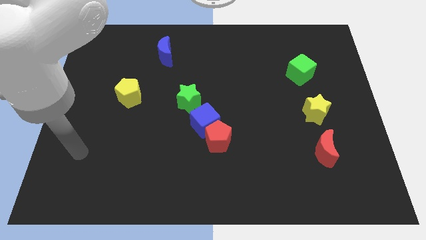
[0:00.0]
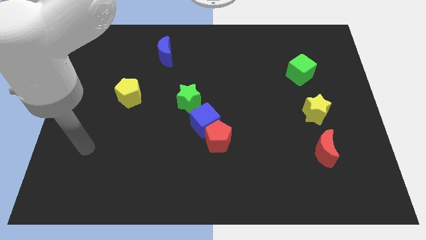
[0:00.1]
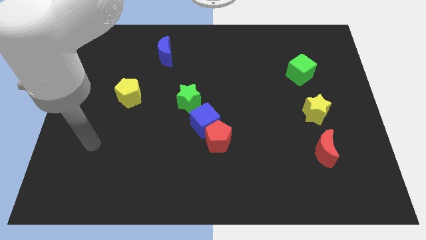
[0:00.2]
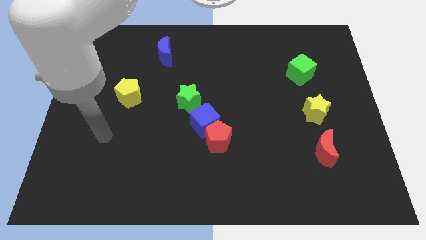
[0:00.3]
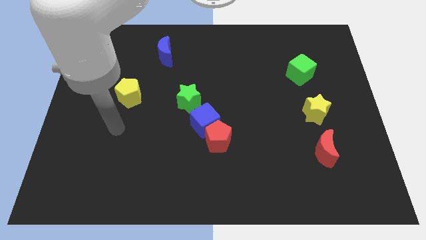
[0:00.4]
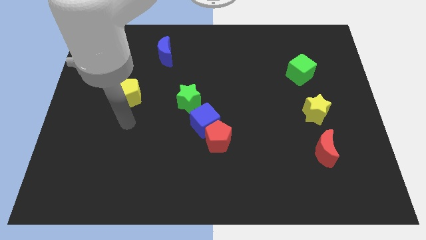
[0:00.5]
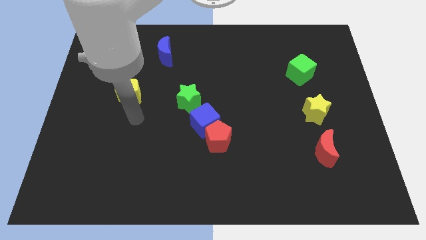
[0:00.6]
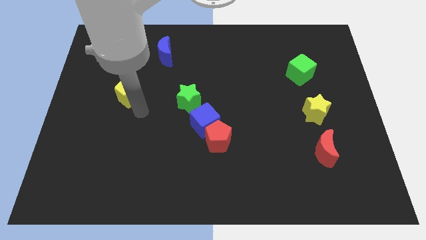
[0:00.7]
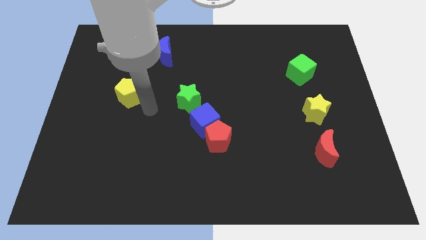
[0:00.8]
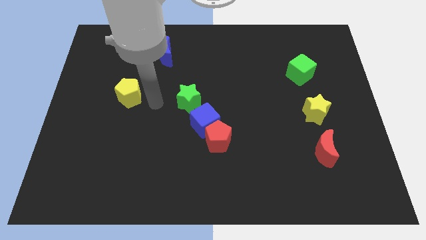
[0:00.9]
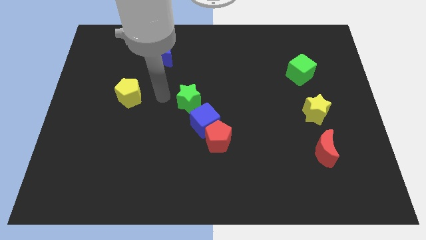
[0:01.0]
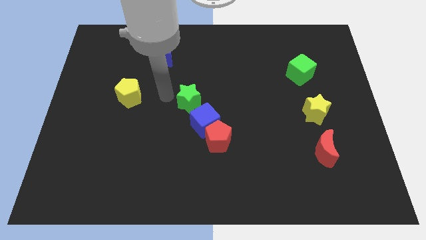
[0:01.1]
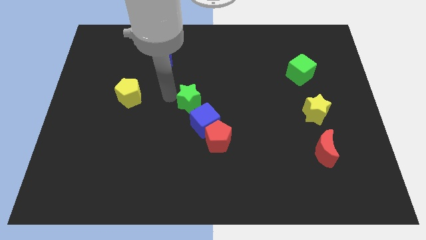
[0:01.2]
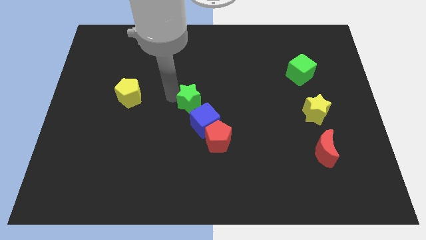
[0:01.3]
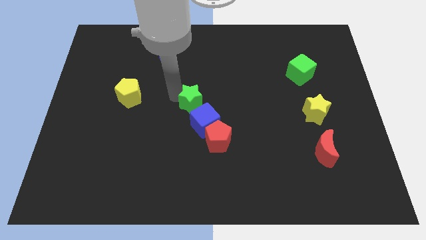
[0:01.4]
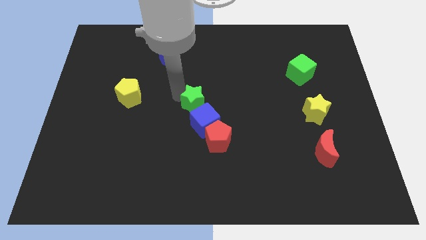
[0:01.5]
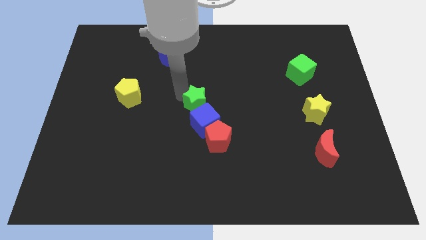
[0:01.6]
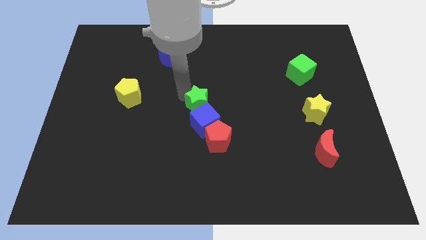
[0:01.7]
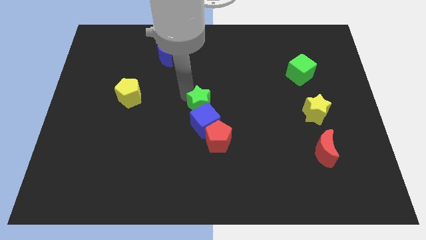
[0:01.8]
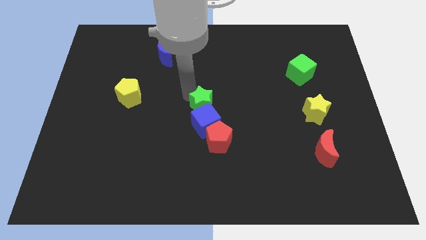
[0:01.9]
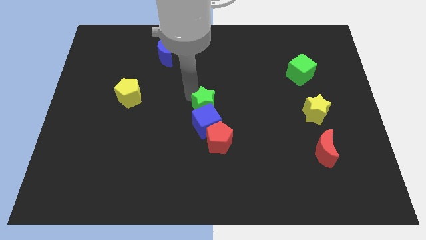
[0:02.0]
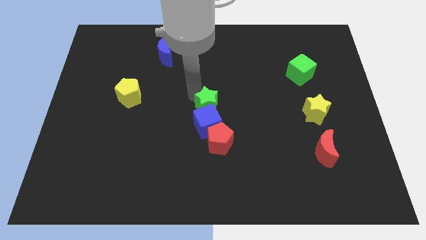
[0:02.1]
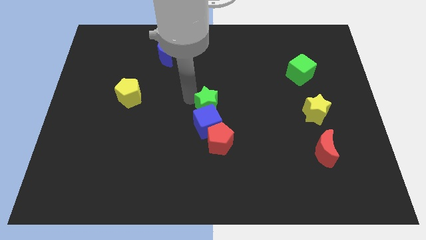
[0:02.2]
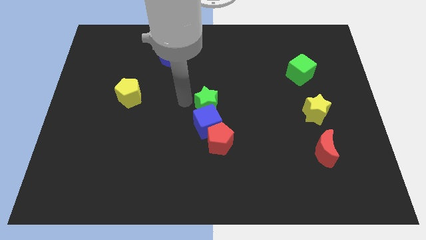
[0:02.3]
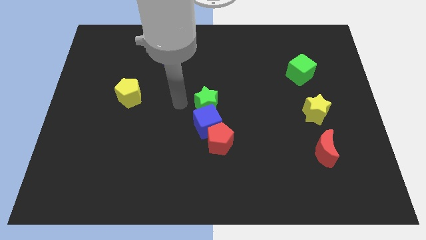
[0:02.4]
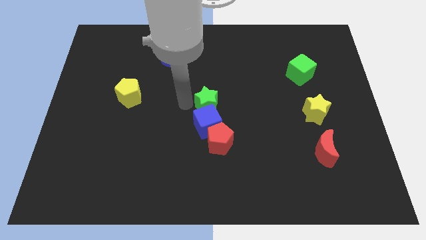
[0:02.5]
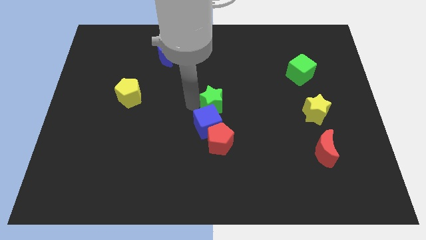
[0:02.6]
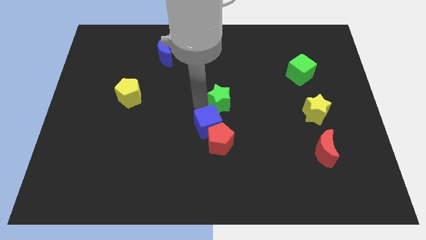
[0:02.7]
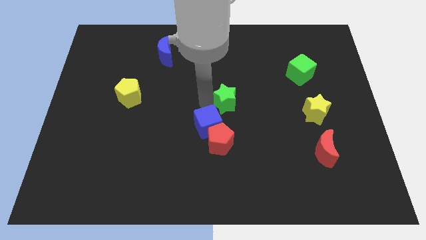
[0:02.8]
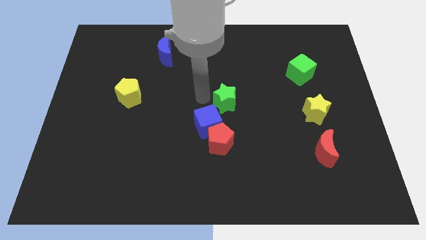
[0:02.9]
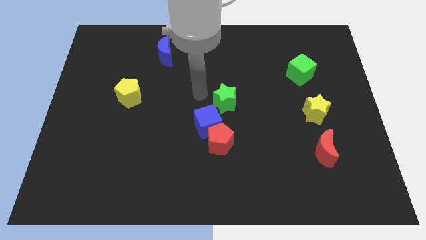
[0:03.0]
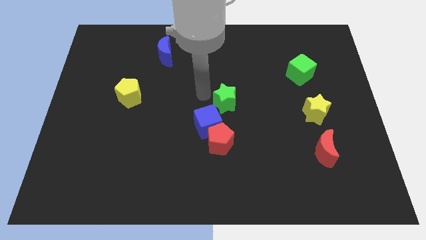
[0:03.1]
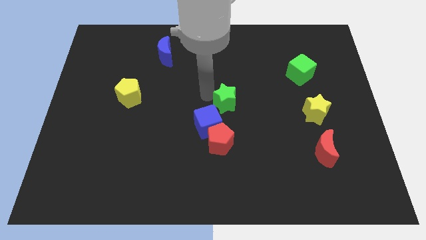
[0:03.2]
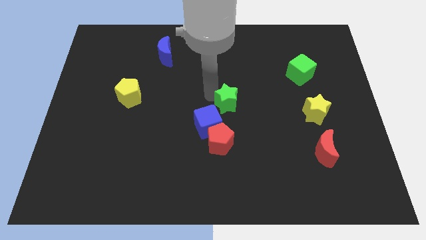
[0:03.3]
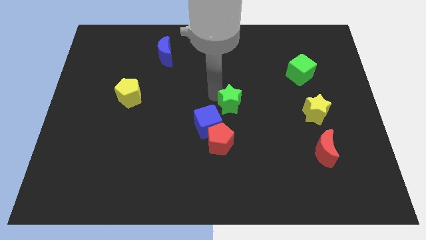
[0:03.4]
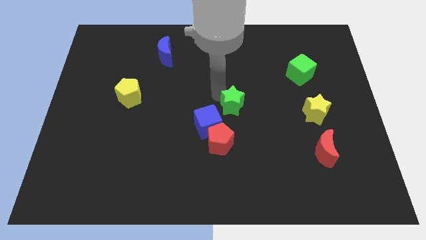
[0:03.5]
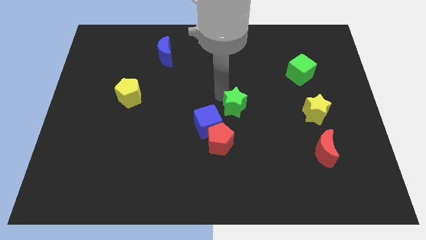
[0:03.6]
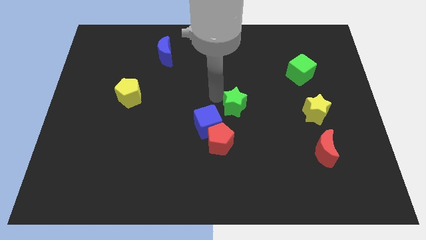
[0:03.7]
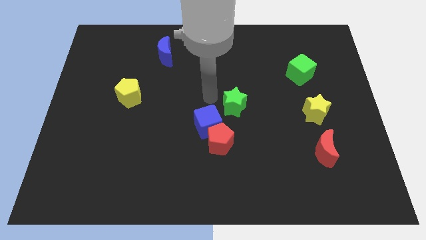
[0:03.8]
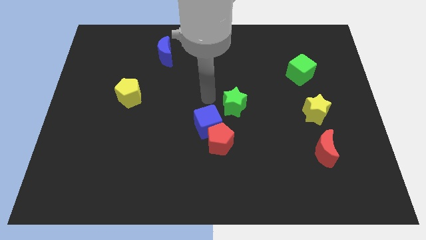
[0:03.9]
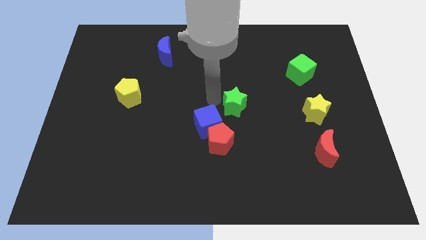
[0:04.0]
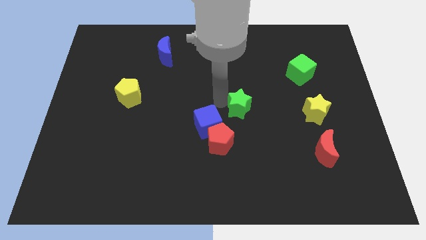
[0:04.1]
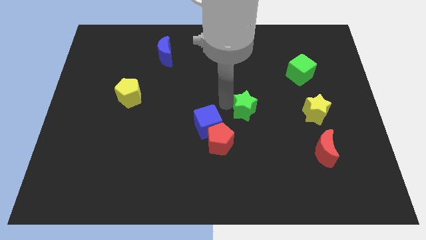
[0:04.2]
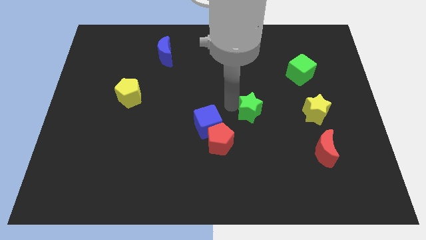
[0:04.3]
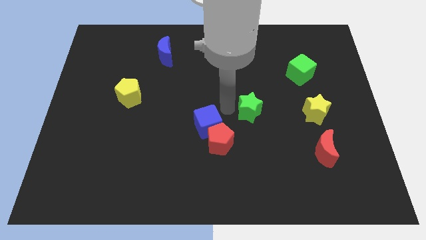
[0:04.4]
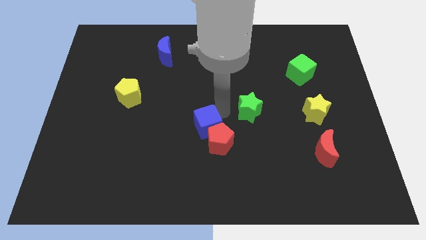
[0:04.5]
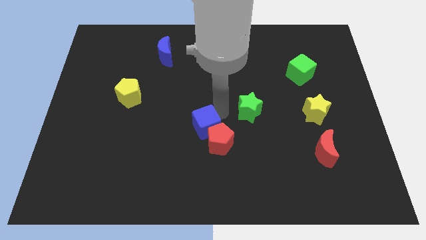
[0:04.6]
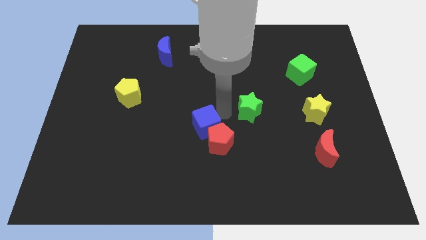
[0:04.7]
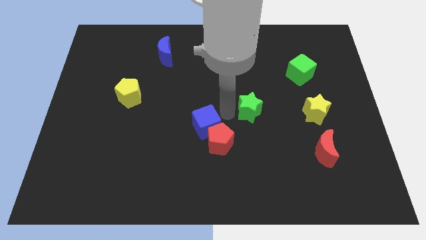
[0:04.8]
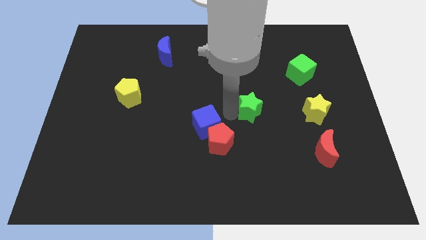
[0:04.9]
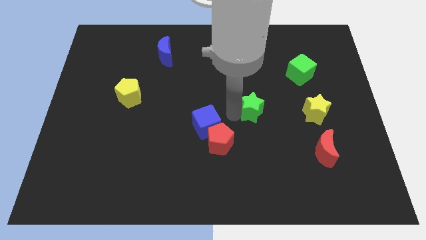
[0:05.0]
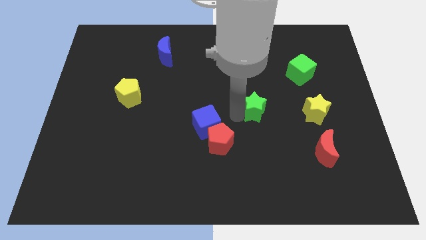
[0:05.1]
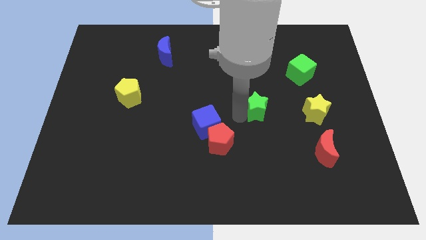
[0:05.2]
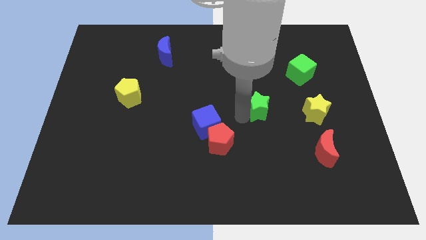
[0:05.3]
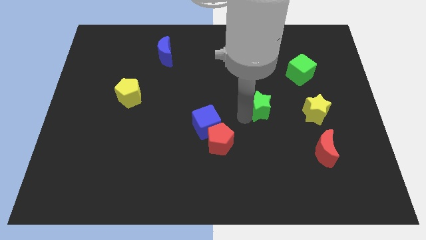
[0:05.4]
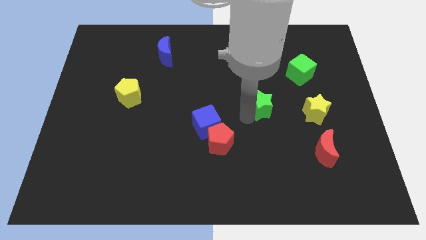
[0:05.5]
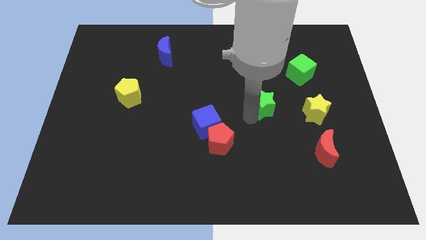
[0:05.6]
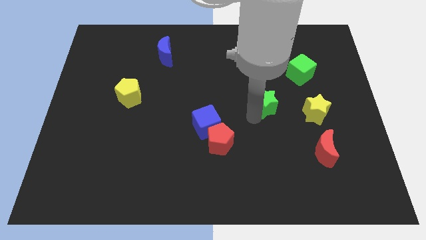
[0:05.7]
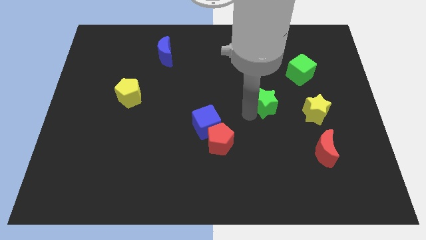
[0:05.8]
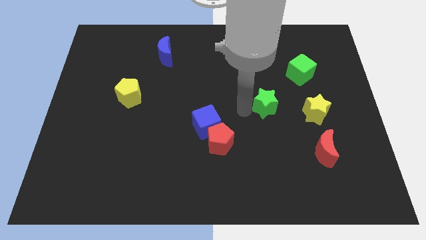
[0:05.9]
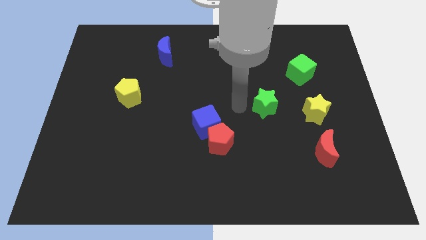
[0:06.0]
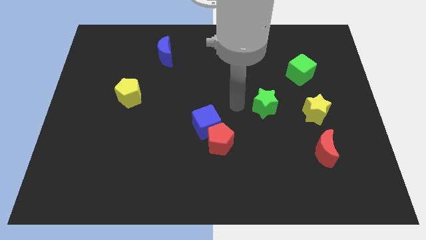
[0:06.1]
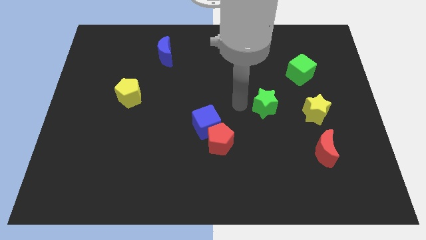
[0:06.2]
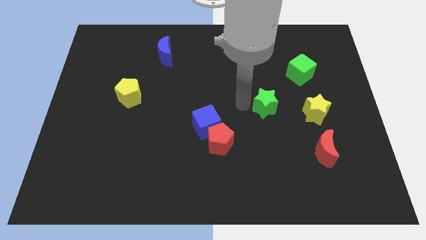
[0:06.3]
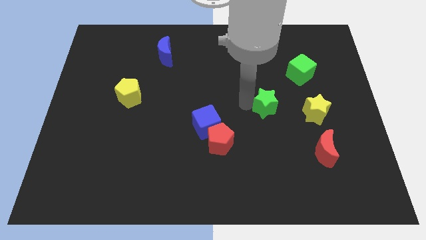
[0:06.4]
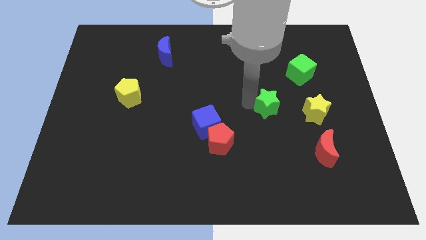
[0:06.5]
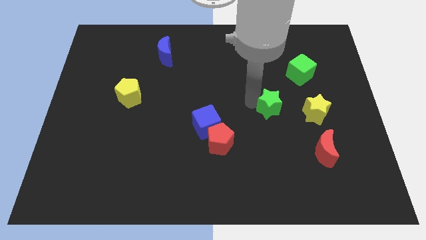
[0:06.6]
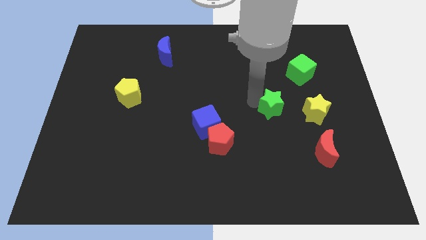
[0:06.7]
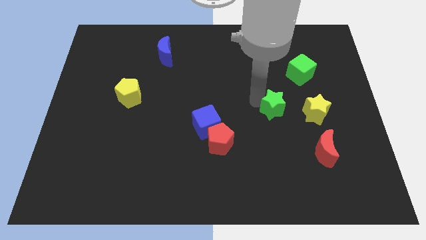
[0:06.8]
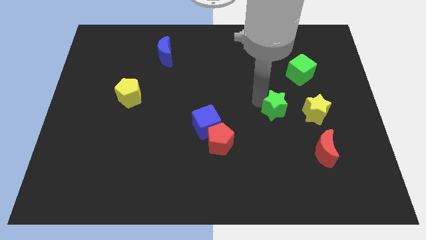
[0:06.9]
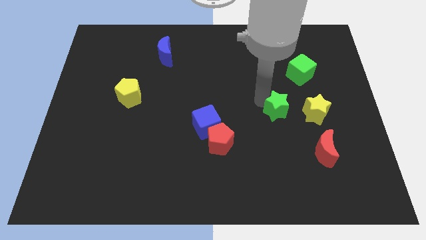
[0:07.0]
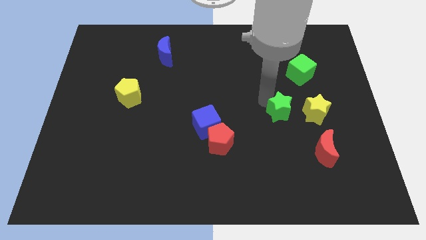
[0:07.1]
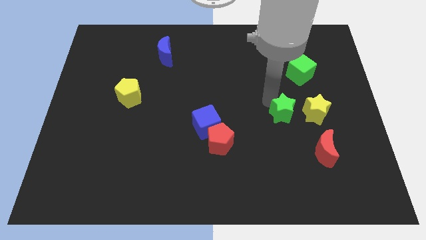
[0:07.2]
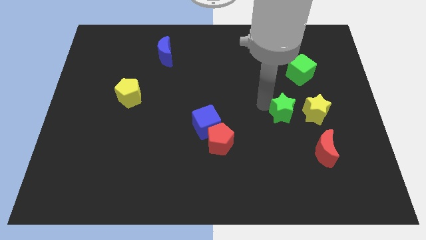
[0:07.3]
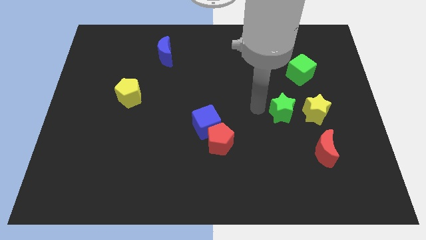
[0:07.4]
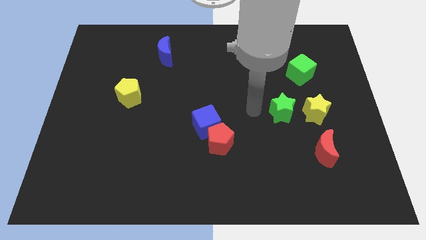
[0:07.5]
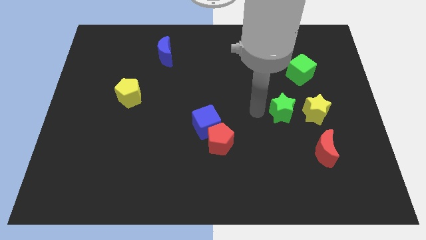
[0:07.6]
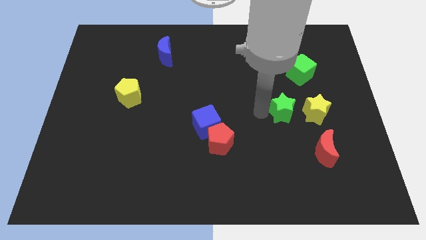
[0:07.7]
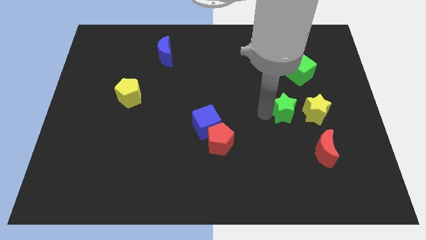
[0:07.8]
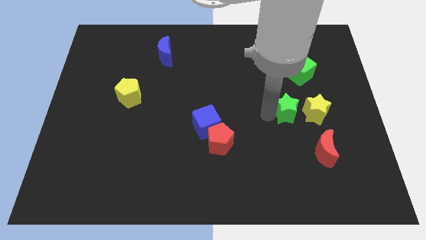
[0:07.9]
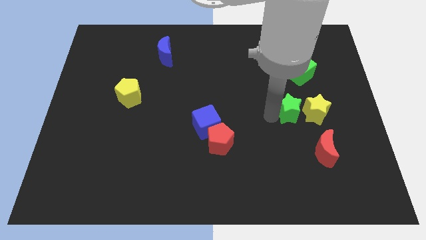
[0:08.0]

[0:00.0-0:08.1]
move the green star towards the yellow star
